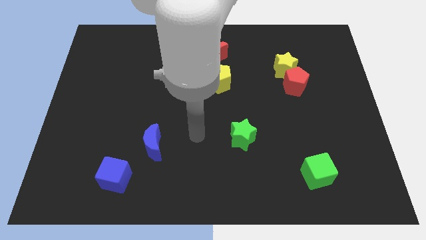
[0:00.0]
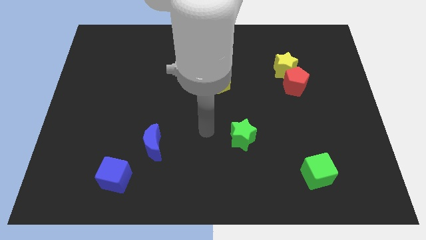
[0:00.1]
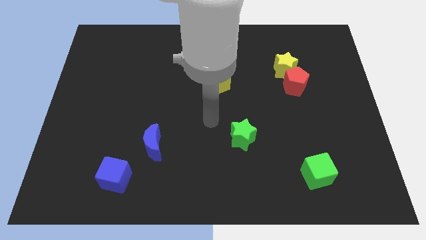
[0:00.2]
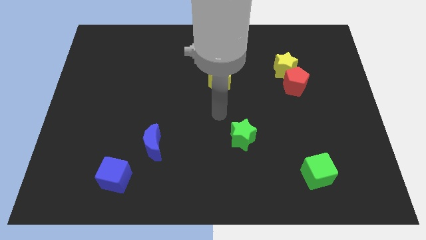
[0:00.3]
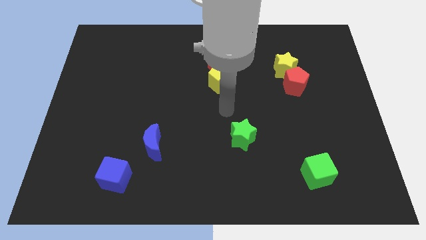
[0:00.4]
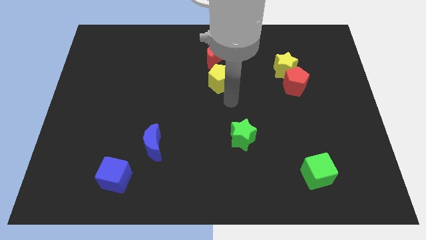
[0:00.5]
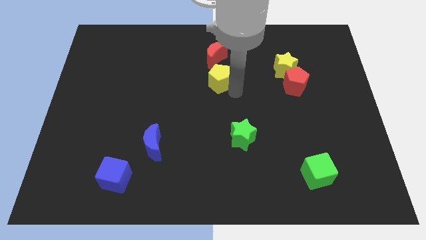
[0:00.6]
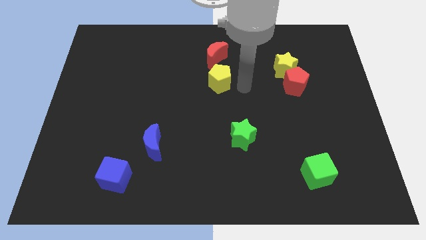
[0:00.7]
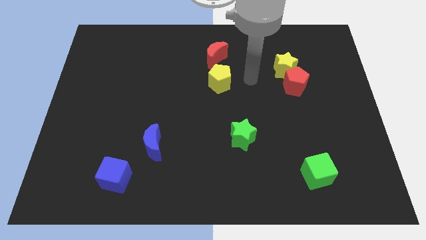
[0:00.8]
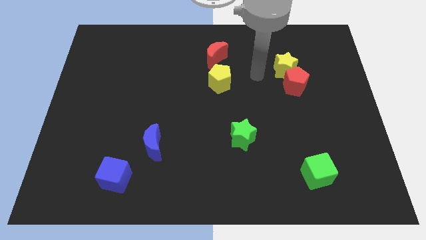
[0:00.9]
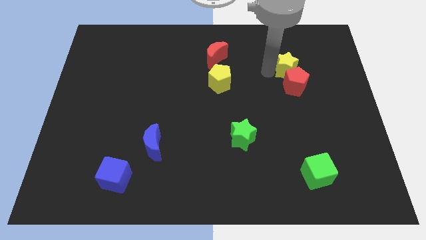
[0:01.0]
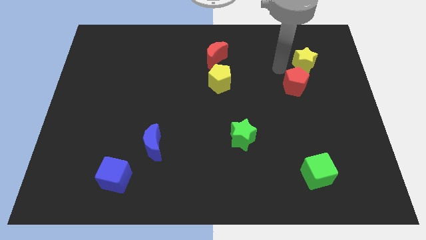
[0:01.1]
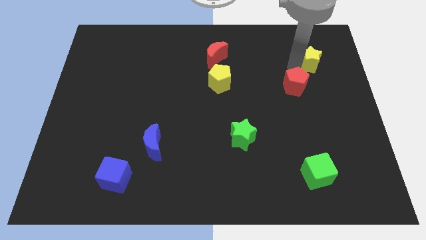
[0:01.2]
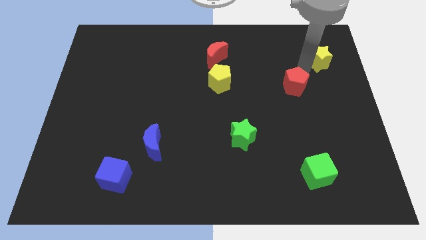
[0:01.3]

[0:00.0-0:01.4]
move the red pentagon away from the yellow star

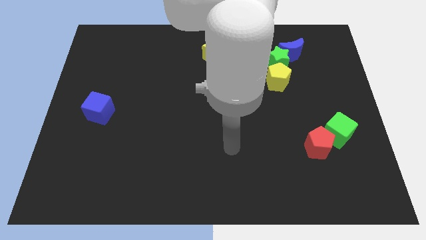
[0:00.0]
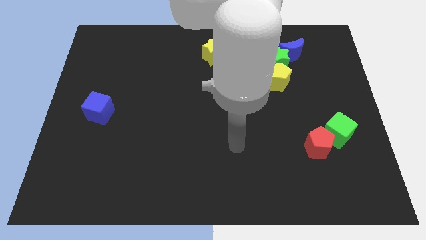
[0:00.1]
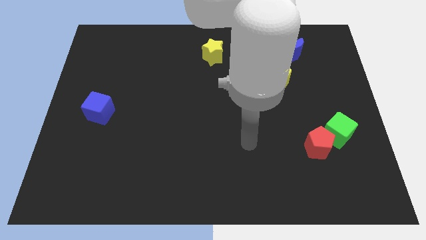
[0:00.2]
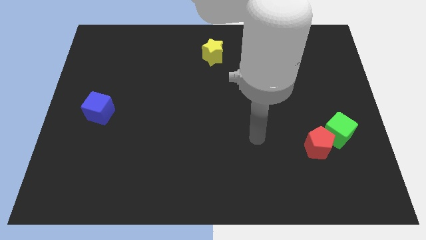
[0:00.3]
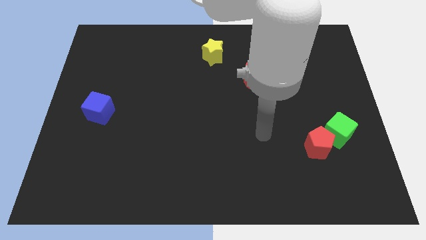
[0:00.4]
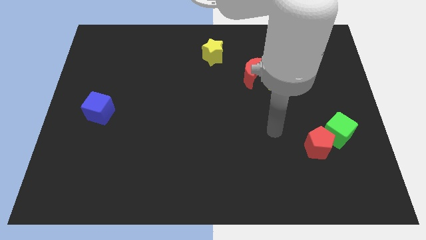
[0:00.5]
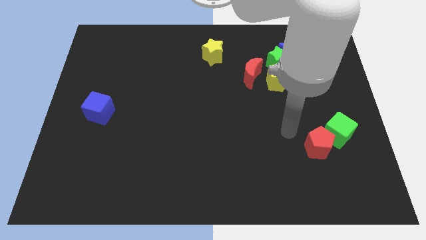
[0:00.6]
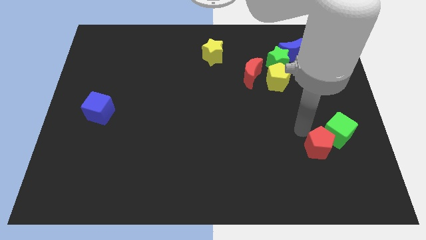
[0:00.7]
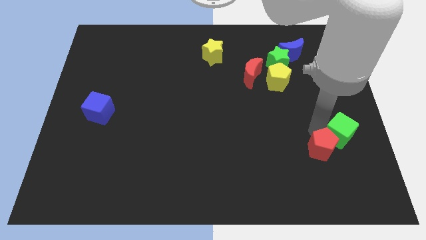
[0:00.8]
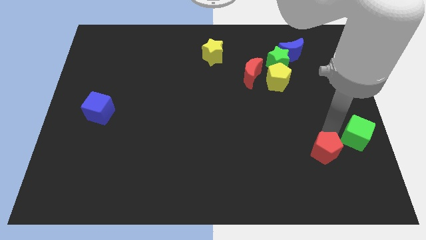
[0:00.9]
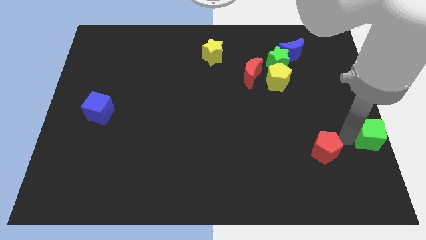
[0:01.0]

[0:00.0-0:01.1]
separate the red pentagon from the green cube

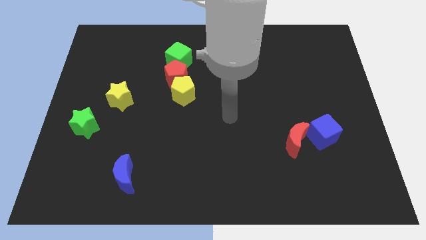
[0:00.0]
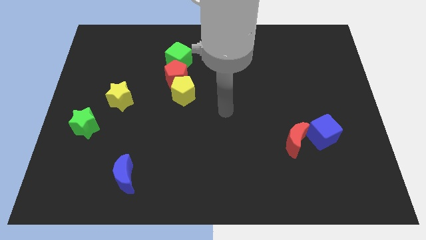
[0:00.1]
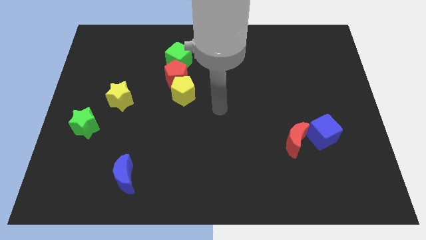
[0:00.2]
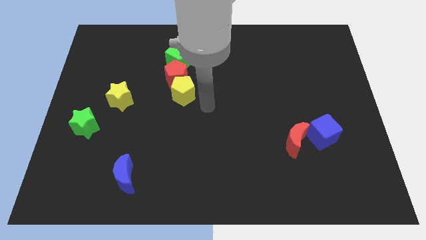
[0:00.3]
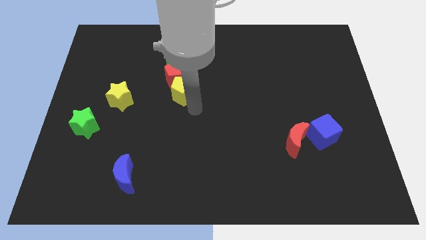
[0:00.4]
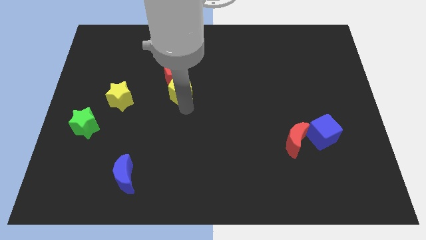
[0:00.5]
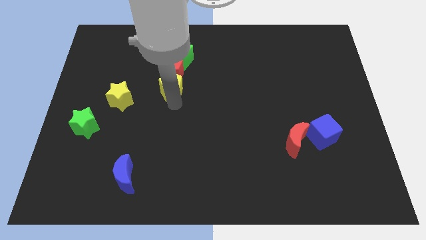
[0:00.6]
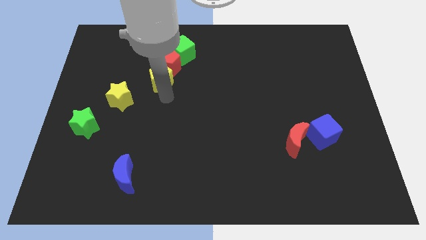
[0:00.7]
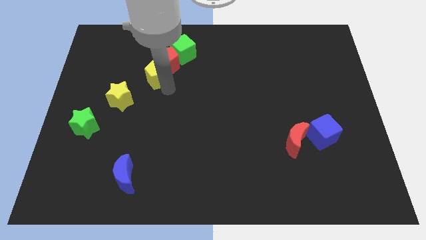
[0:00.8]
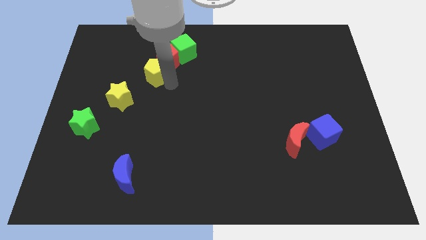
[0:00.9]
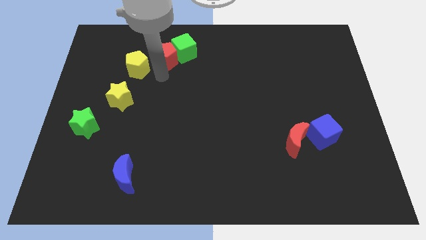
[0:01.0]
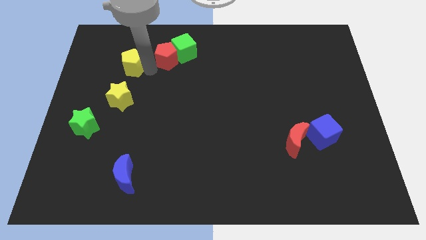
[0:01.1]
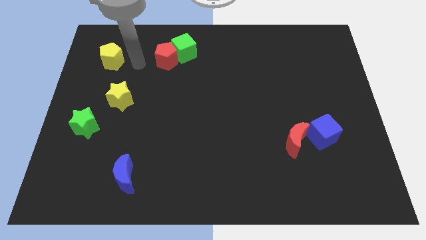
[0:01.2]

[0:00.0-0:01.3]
separate the yellow pentagon from the red pentagon

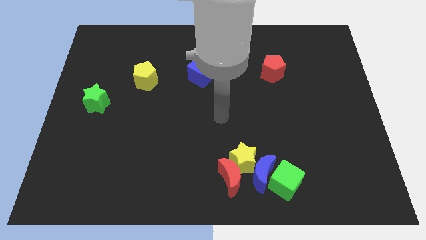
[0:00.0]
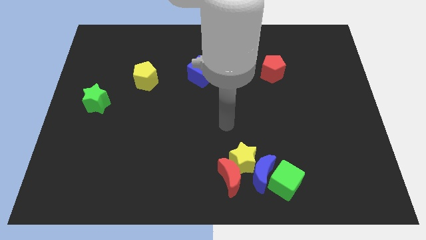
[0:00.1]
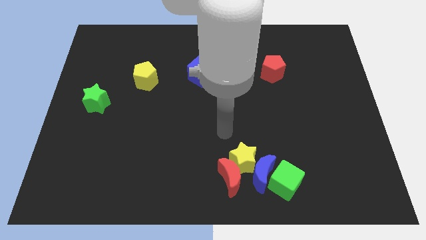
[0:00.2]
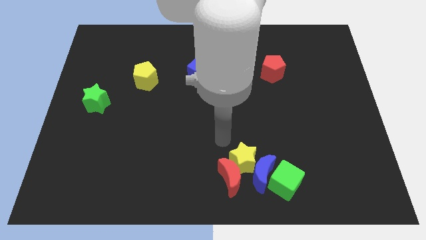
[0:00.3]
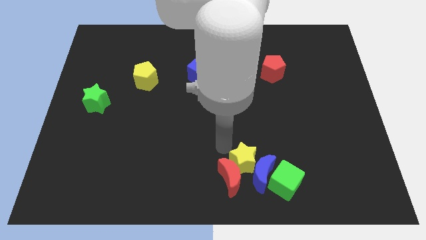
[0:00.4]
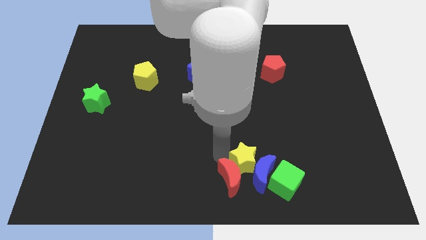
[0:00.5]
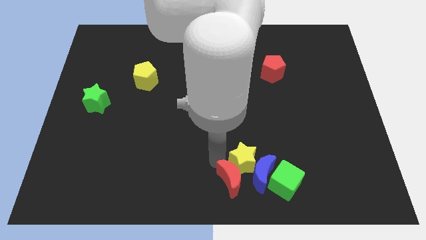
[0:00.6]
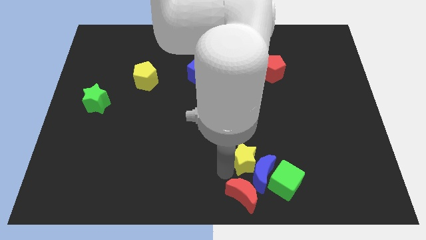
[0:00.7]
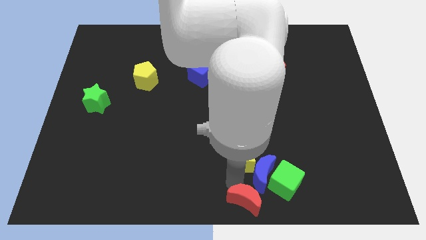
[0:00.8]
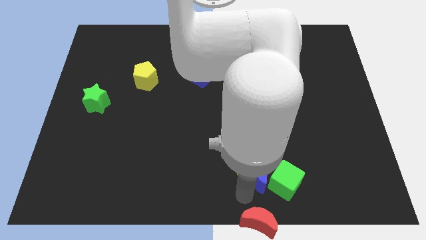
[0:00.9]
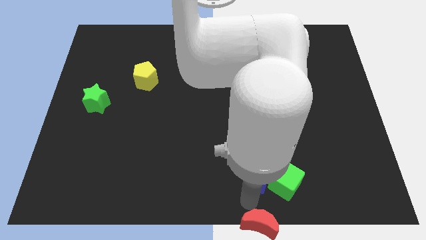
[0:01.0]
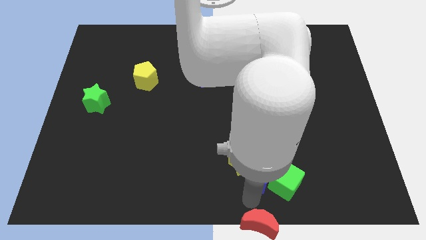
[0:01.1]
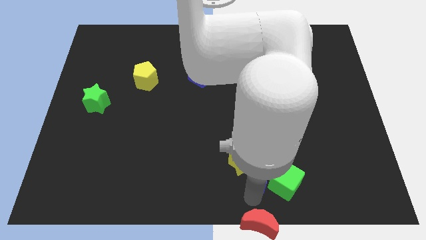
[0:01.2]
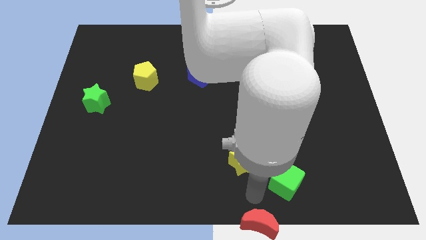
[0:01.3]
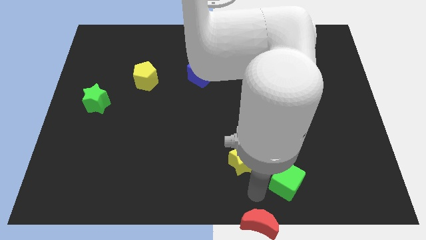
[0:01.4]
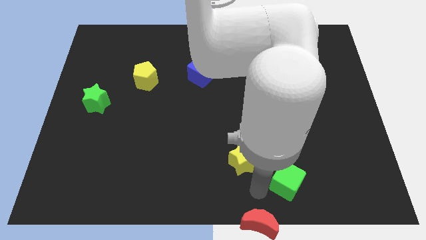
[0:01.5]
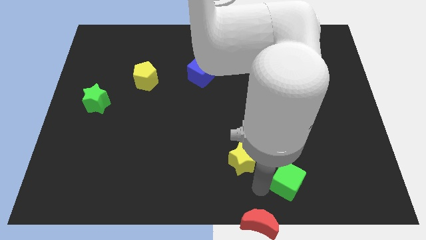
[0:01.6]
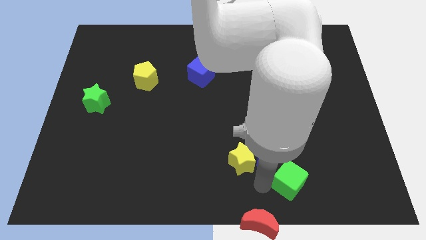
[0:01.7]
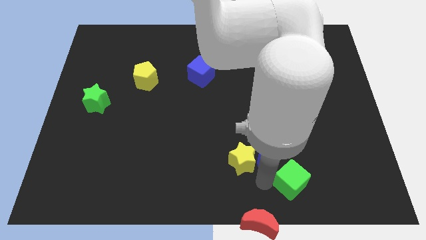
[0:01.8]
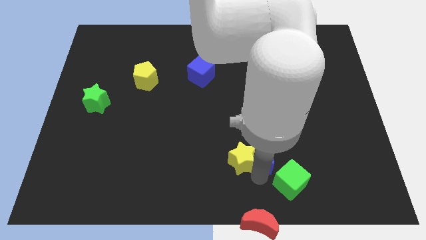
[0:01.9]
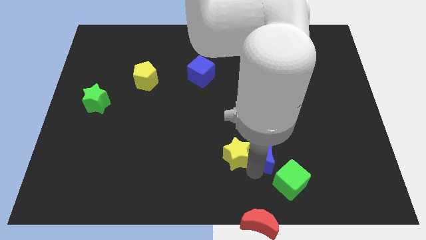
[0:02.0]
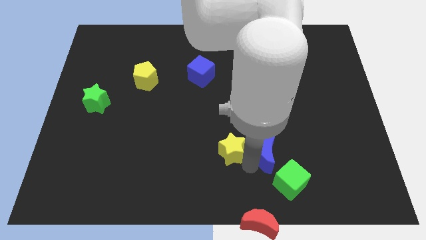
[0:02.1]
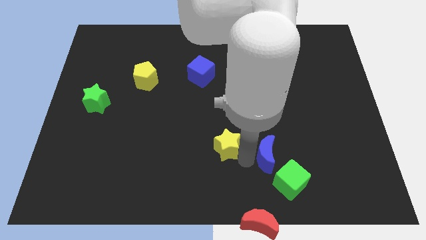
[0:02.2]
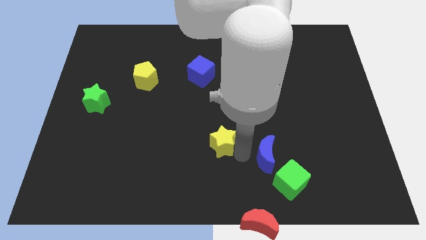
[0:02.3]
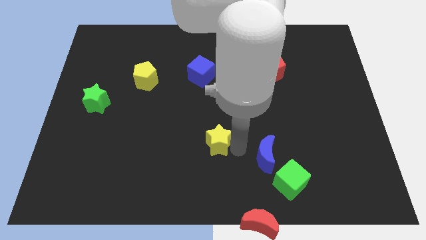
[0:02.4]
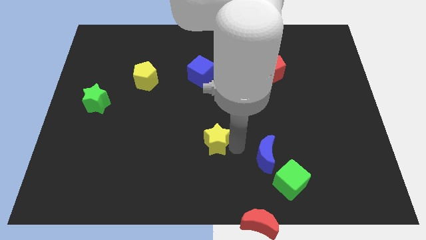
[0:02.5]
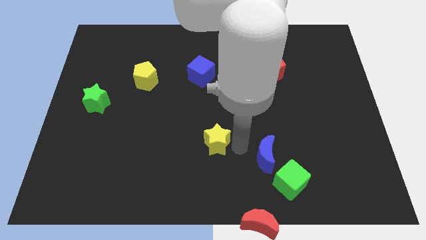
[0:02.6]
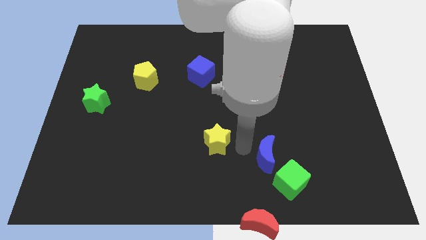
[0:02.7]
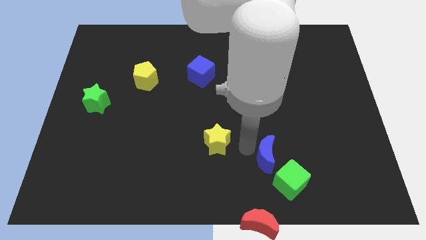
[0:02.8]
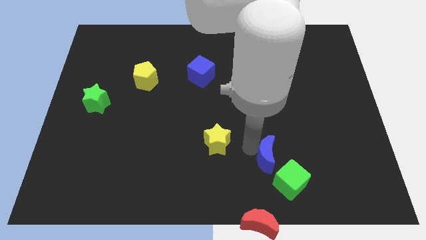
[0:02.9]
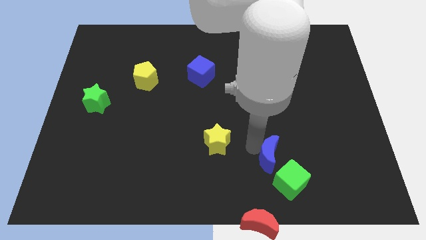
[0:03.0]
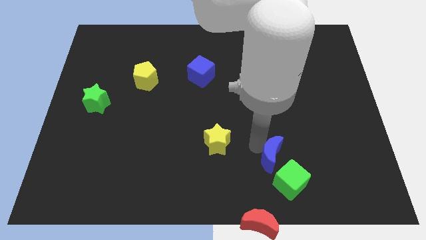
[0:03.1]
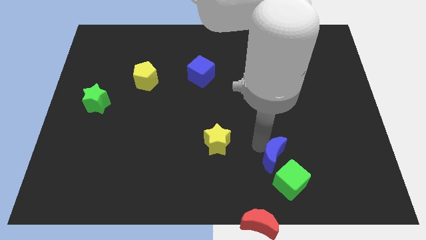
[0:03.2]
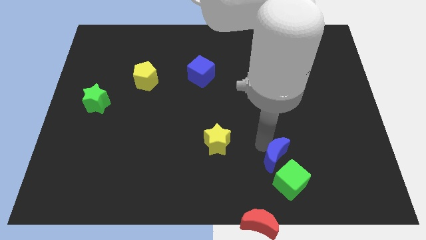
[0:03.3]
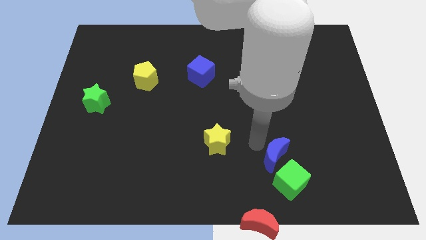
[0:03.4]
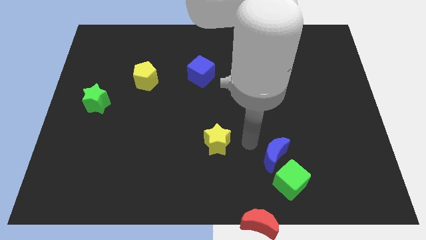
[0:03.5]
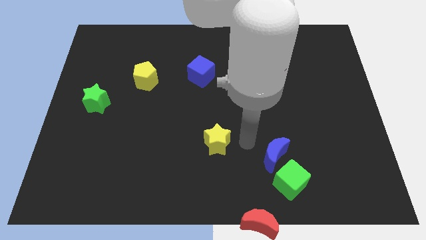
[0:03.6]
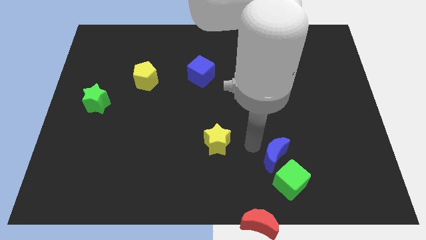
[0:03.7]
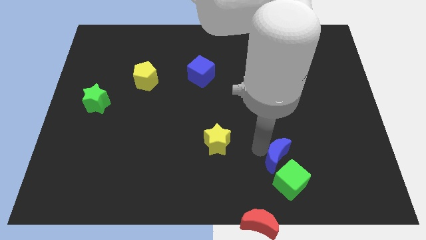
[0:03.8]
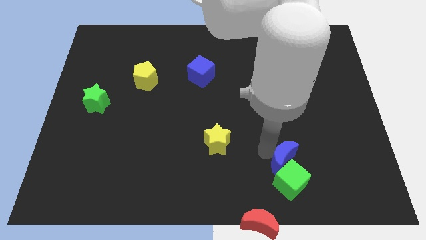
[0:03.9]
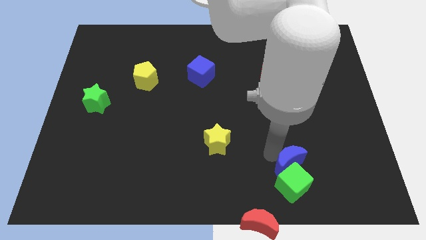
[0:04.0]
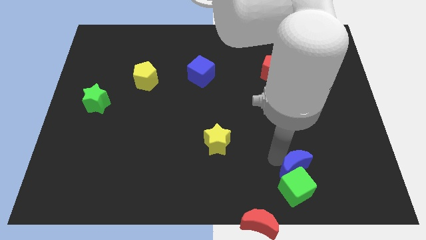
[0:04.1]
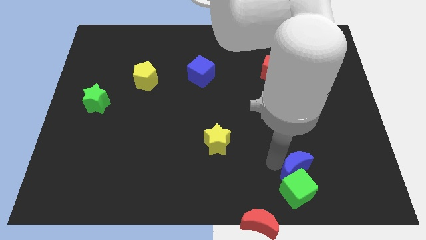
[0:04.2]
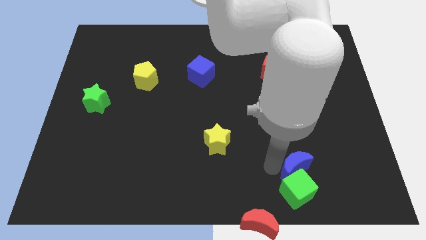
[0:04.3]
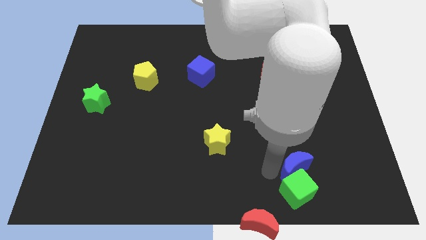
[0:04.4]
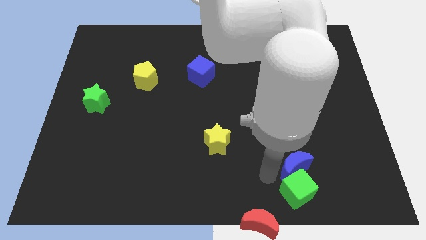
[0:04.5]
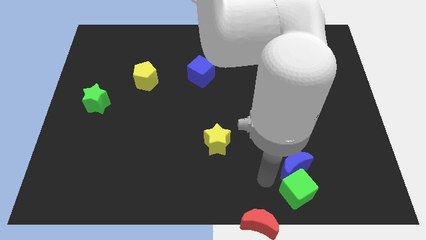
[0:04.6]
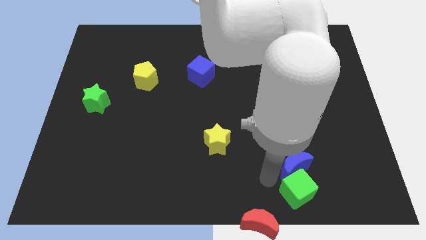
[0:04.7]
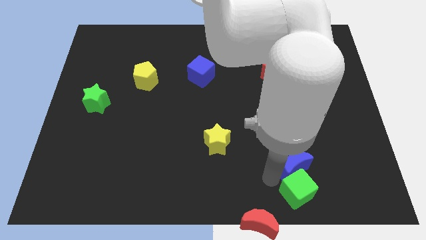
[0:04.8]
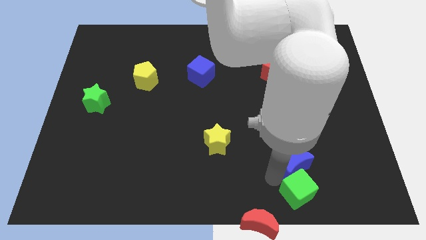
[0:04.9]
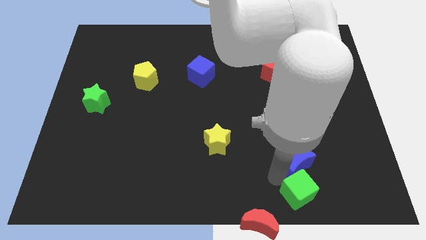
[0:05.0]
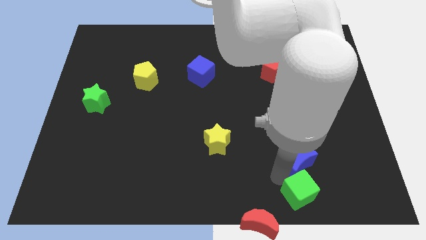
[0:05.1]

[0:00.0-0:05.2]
separate the blue moon from the group of blocks

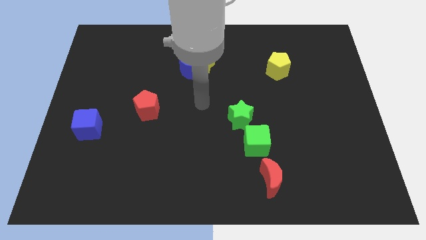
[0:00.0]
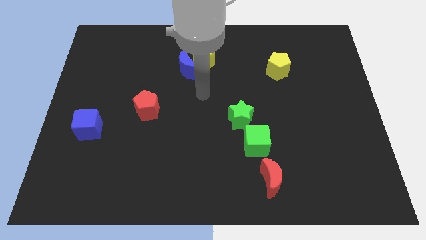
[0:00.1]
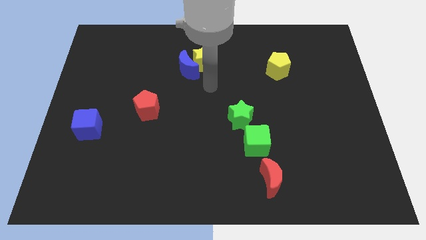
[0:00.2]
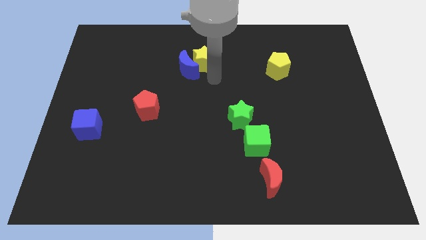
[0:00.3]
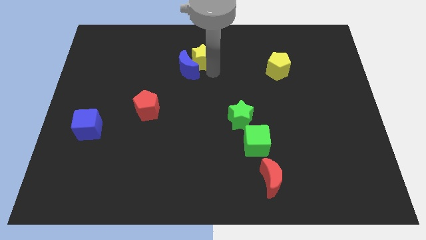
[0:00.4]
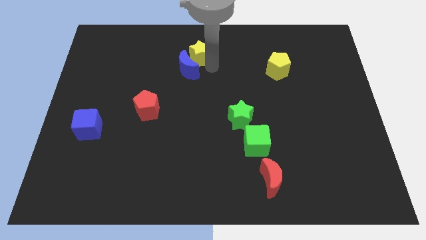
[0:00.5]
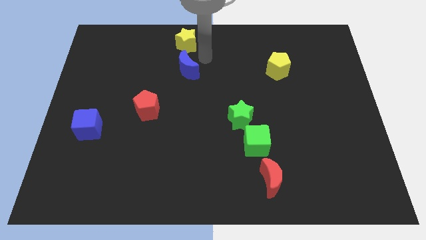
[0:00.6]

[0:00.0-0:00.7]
pull the blue moon apart from the yellow star
